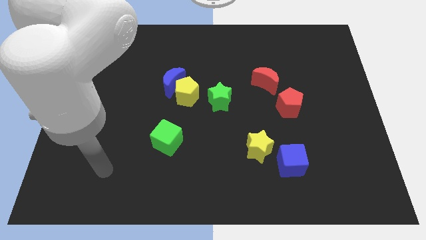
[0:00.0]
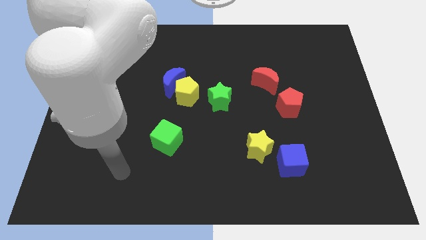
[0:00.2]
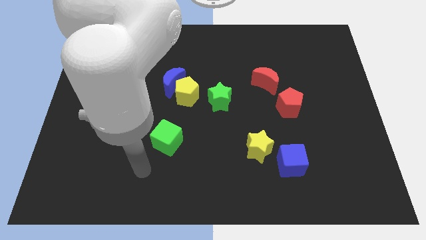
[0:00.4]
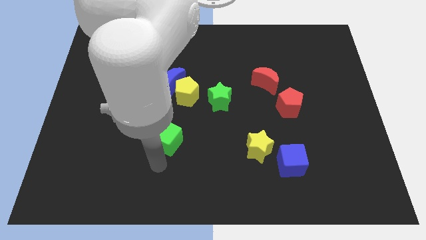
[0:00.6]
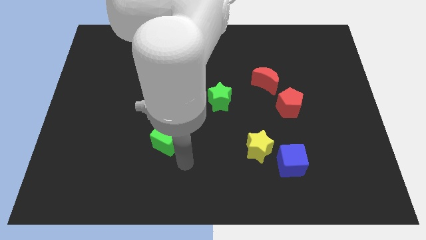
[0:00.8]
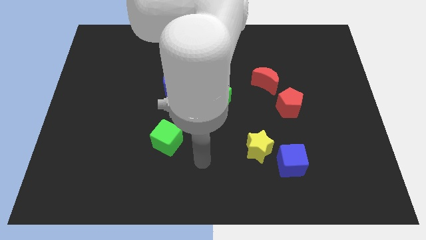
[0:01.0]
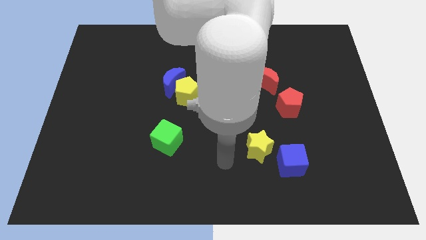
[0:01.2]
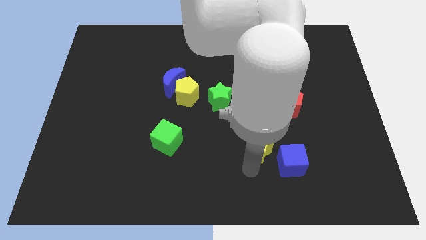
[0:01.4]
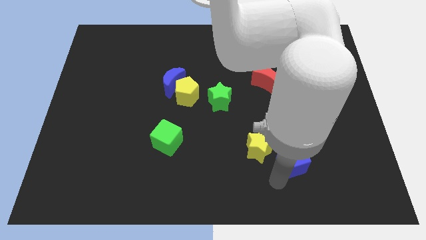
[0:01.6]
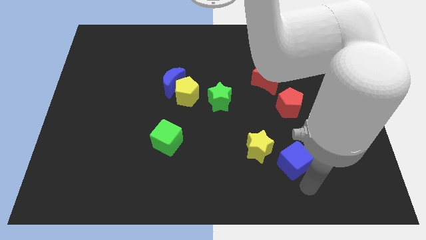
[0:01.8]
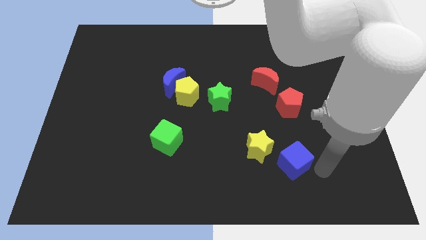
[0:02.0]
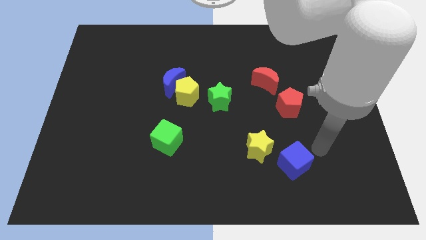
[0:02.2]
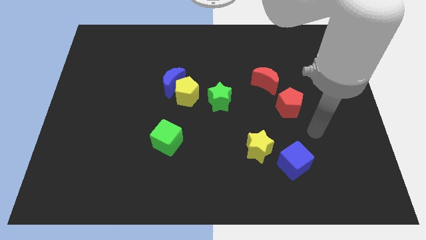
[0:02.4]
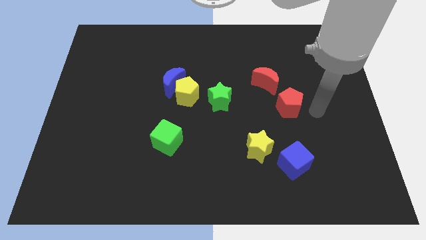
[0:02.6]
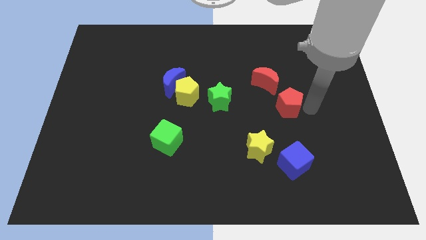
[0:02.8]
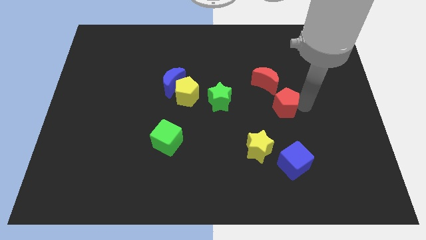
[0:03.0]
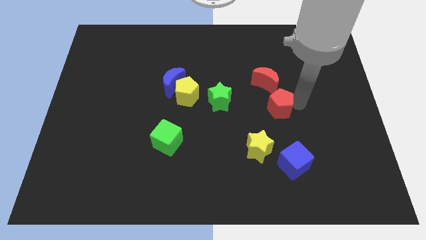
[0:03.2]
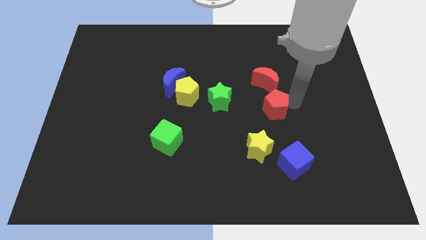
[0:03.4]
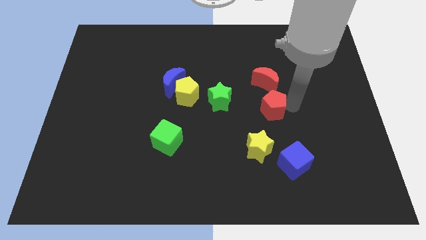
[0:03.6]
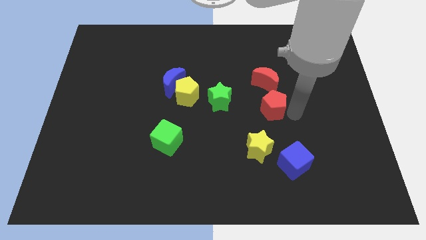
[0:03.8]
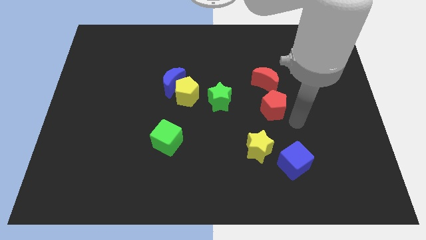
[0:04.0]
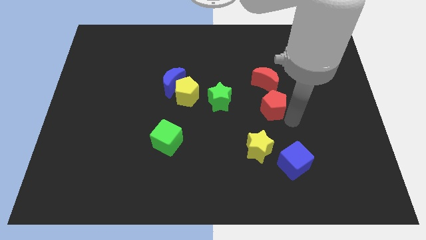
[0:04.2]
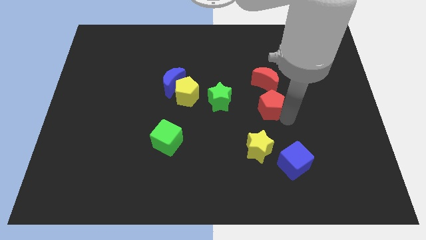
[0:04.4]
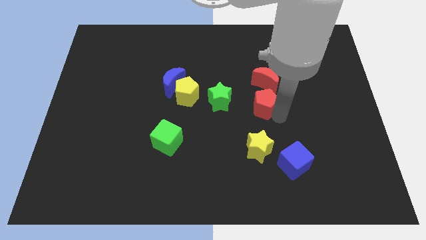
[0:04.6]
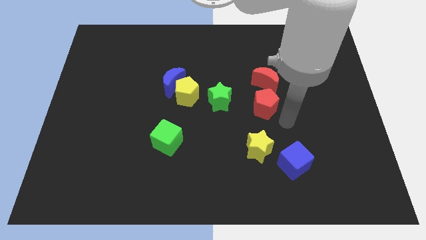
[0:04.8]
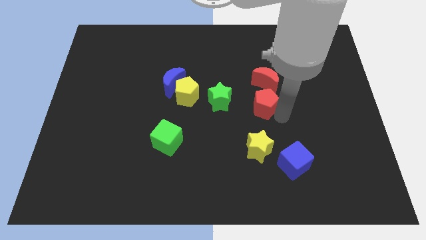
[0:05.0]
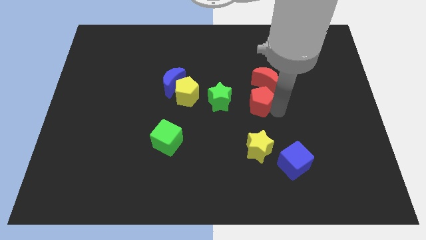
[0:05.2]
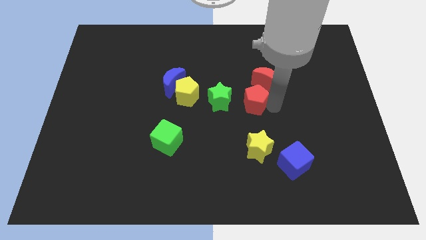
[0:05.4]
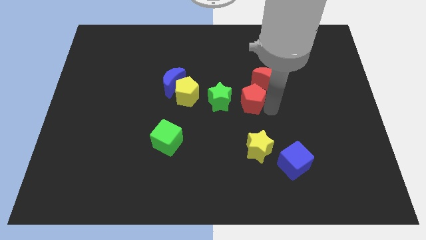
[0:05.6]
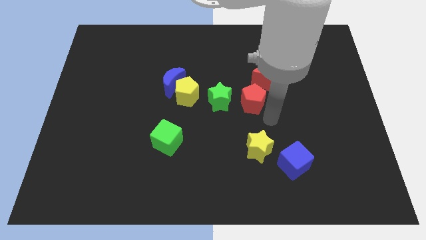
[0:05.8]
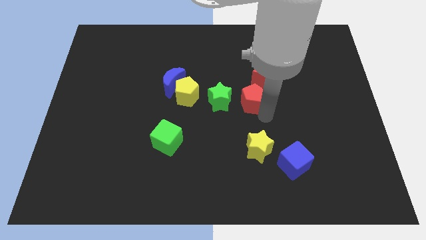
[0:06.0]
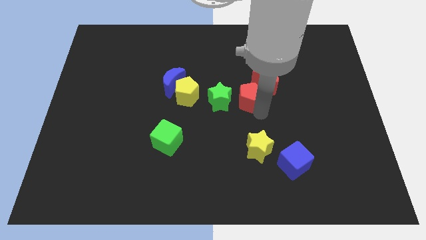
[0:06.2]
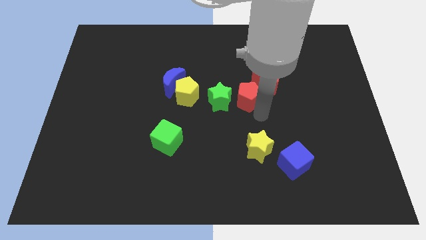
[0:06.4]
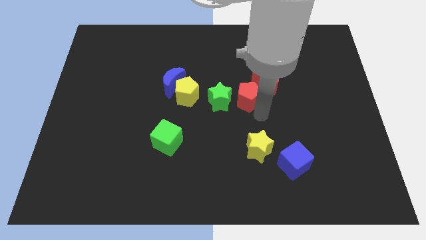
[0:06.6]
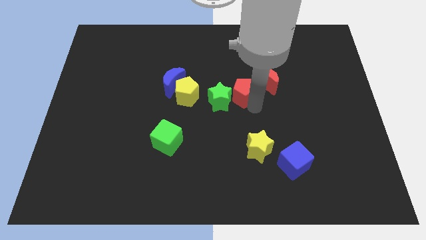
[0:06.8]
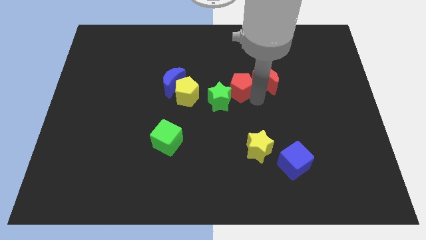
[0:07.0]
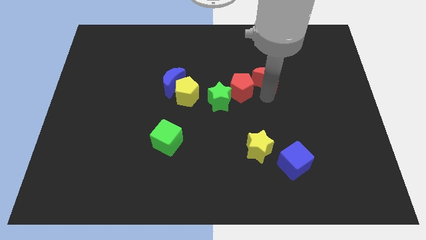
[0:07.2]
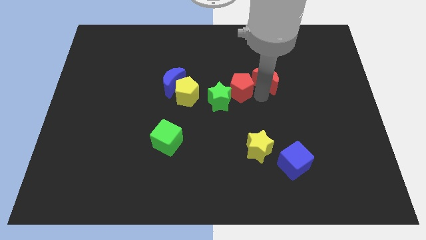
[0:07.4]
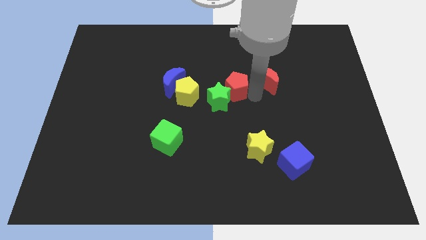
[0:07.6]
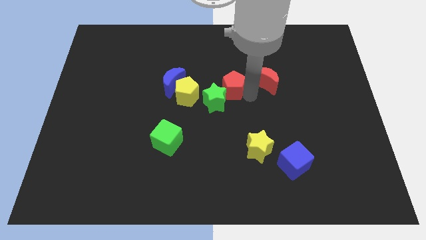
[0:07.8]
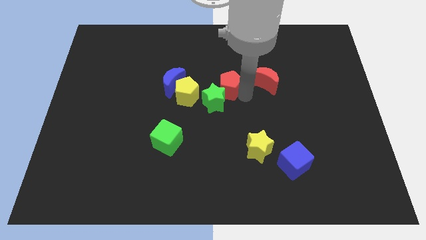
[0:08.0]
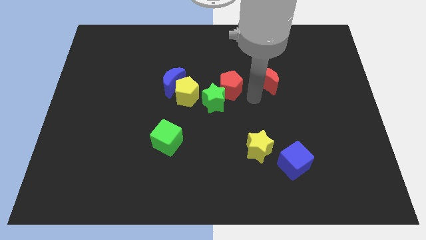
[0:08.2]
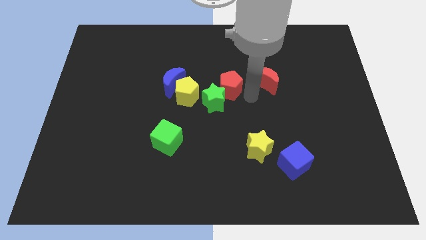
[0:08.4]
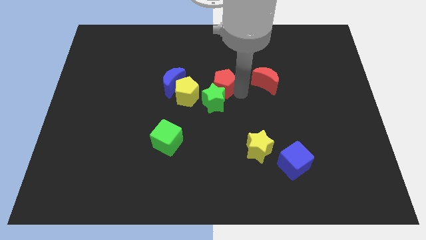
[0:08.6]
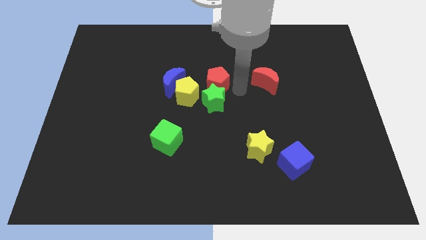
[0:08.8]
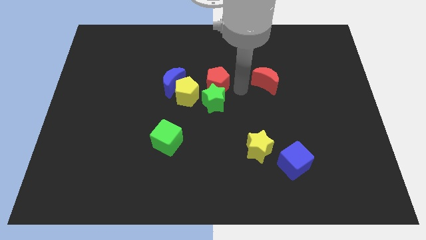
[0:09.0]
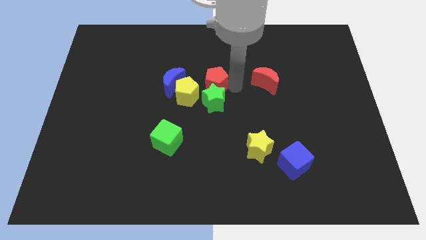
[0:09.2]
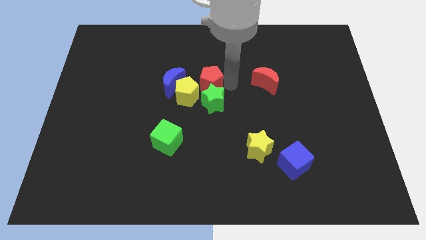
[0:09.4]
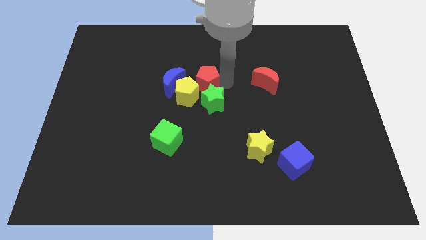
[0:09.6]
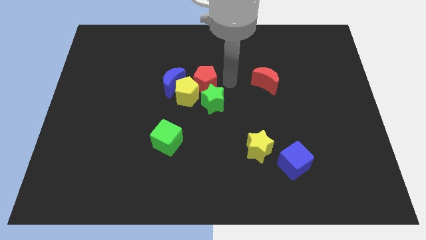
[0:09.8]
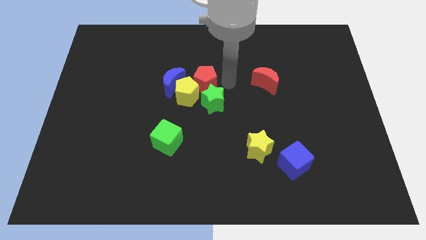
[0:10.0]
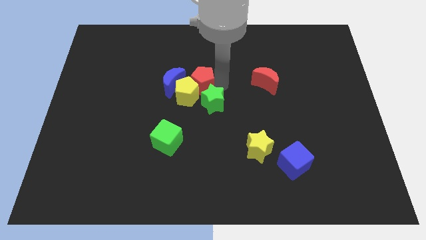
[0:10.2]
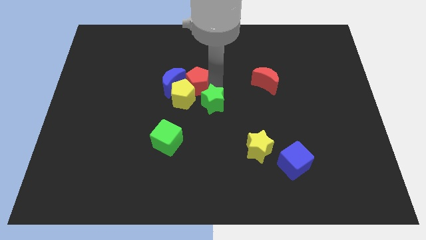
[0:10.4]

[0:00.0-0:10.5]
push the red pentagon towards the blue moon

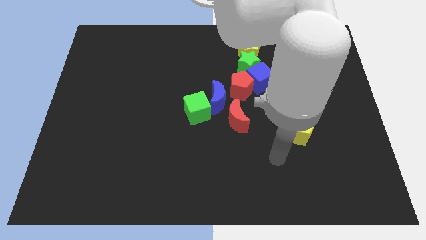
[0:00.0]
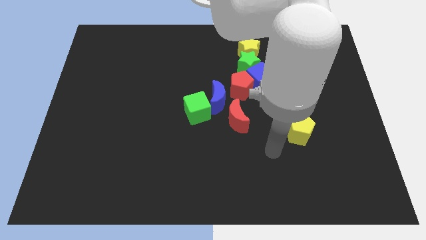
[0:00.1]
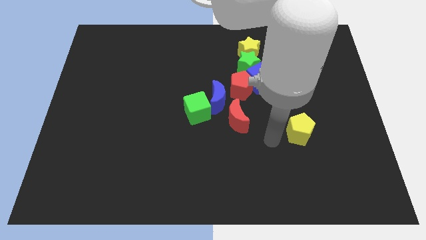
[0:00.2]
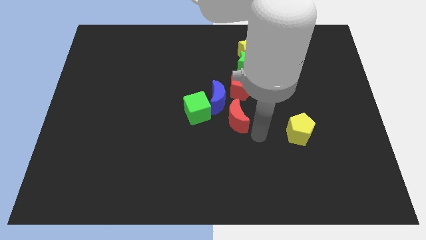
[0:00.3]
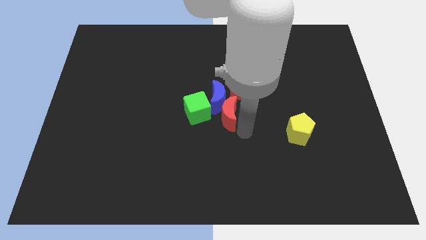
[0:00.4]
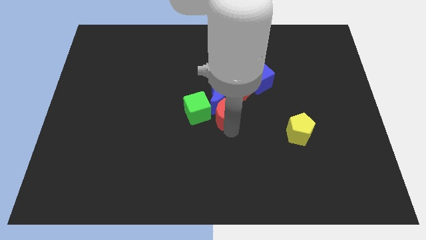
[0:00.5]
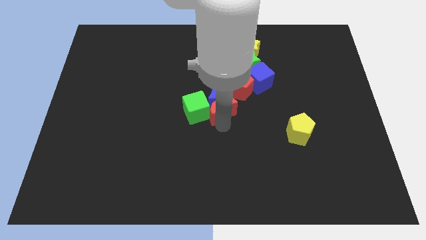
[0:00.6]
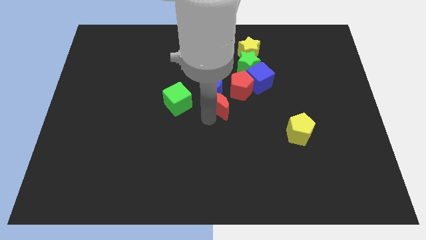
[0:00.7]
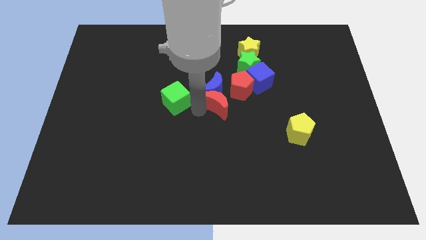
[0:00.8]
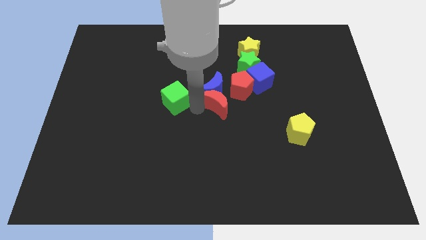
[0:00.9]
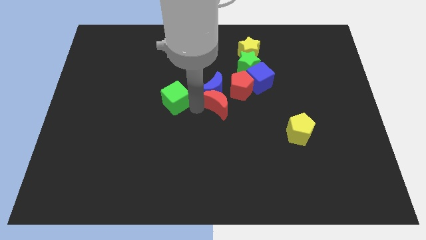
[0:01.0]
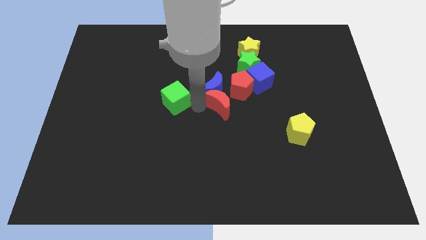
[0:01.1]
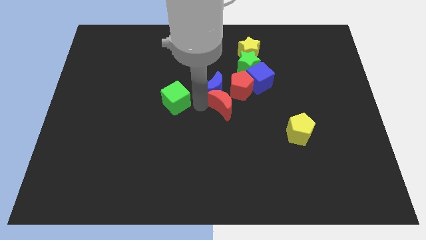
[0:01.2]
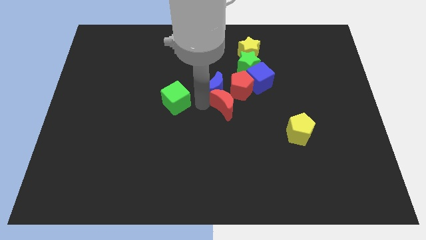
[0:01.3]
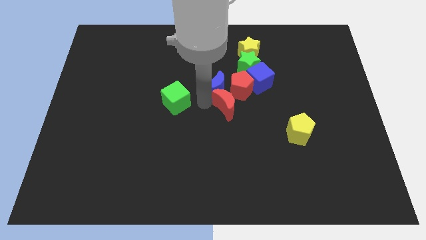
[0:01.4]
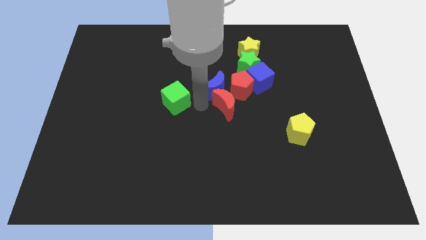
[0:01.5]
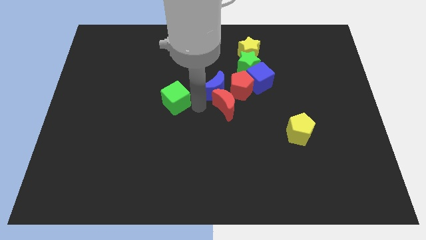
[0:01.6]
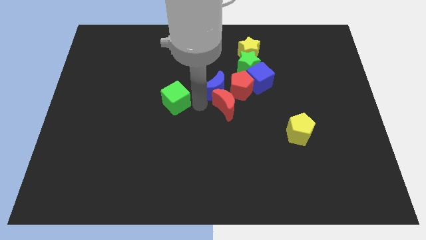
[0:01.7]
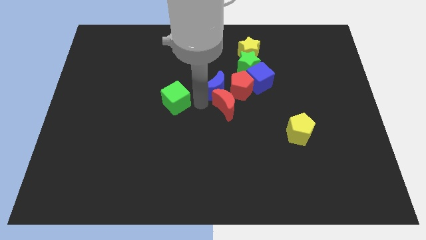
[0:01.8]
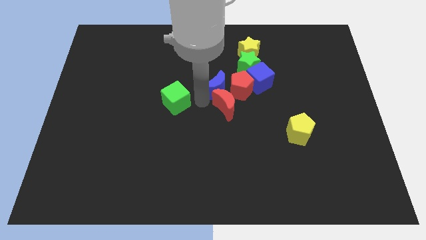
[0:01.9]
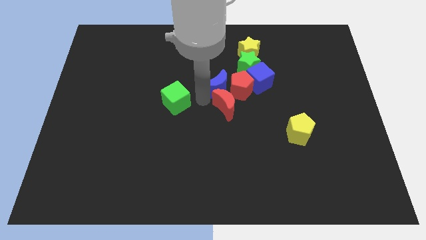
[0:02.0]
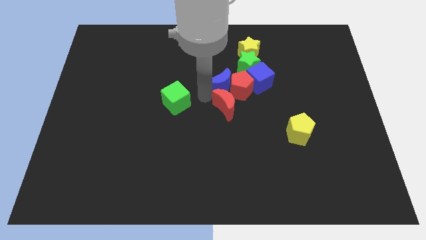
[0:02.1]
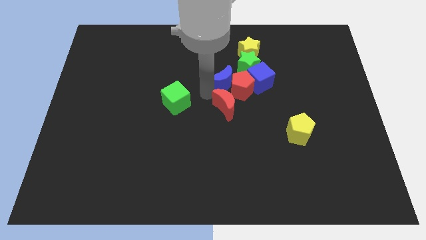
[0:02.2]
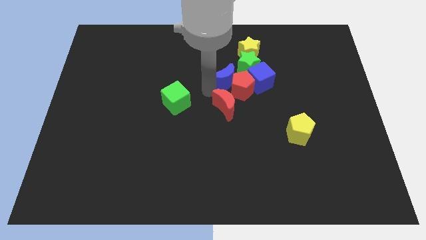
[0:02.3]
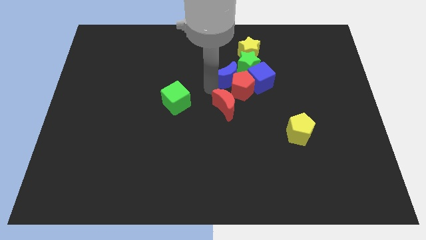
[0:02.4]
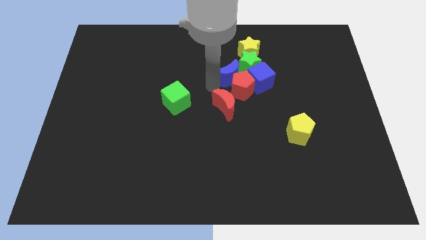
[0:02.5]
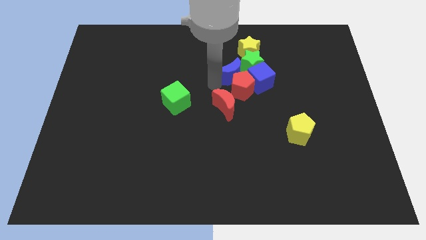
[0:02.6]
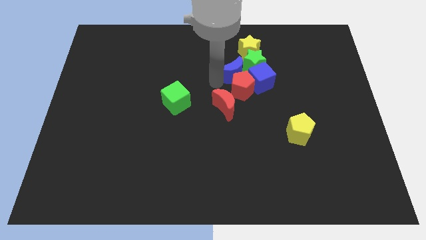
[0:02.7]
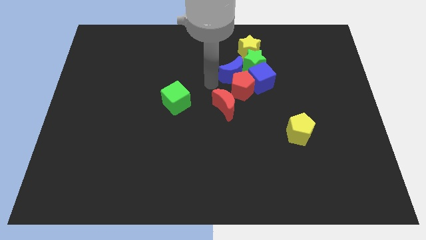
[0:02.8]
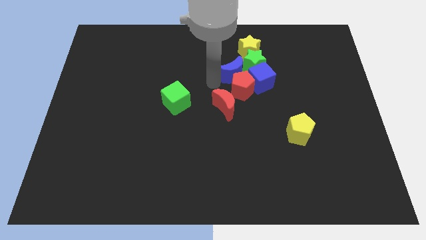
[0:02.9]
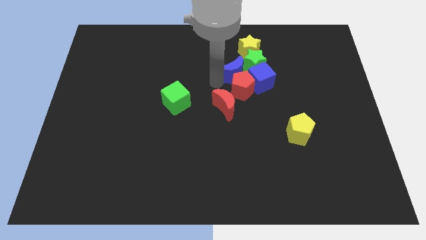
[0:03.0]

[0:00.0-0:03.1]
slide the blue moon next to the green star

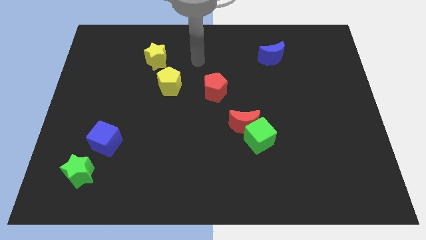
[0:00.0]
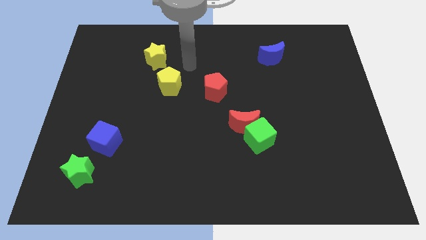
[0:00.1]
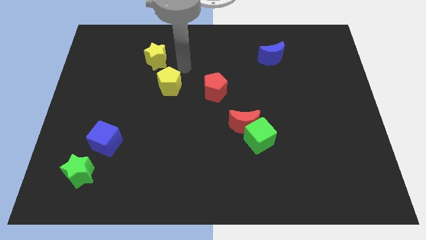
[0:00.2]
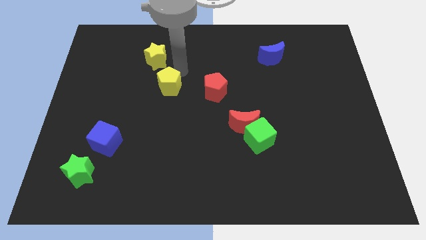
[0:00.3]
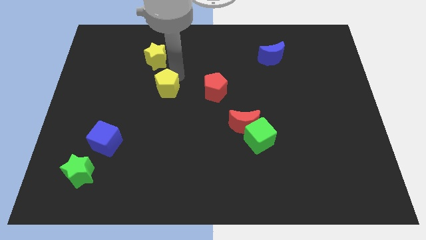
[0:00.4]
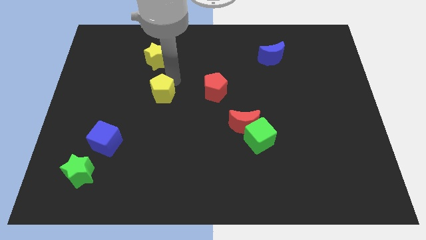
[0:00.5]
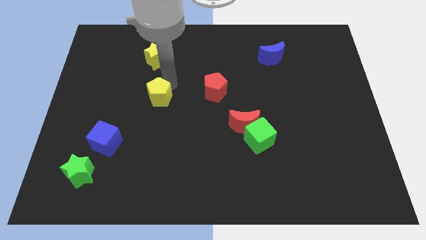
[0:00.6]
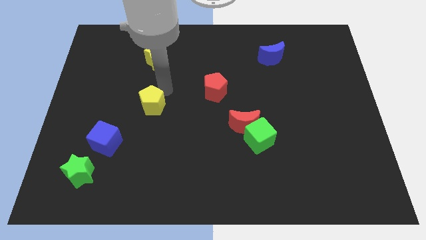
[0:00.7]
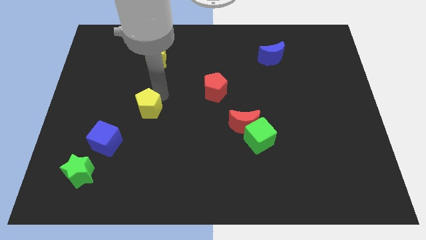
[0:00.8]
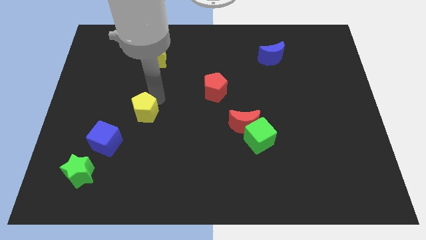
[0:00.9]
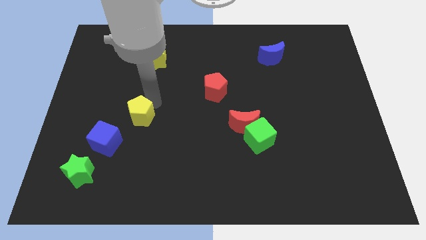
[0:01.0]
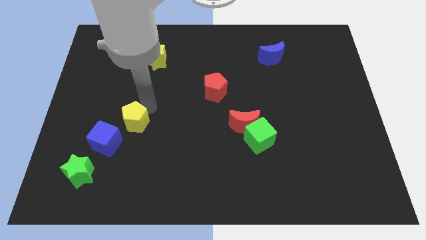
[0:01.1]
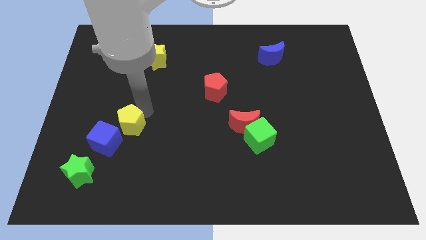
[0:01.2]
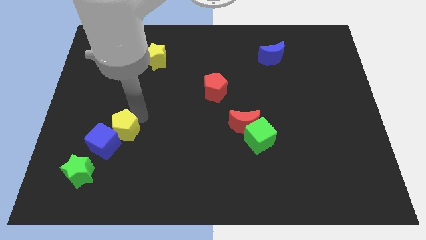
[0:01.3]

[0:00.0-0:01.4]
slide the yellow pentagon towards the blue cube
